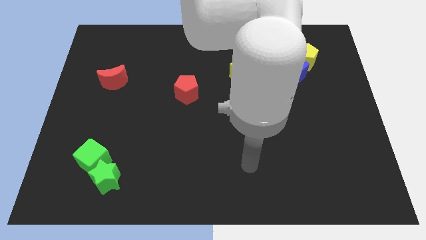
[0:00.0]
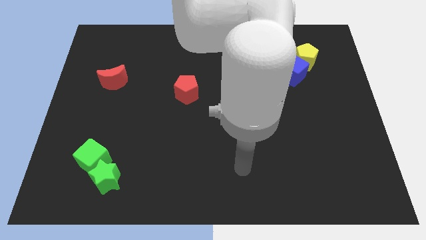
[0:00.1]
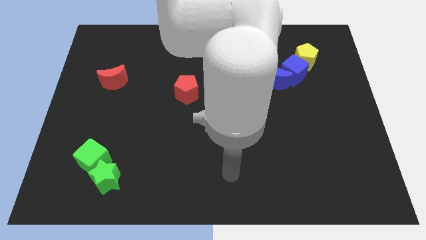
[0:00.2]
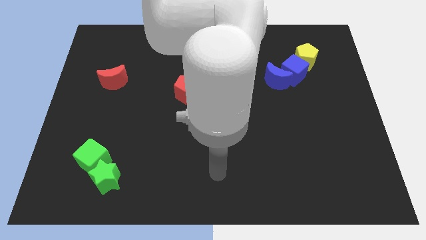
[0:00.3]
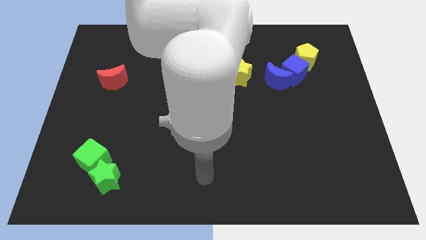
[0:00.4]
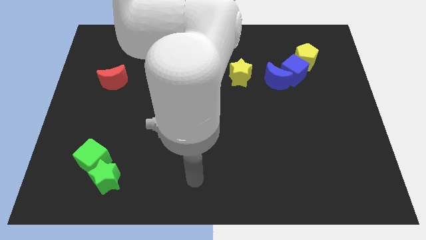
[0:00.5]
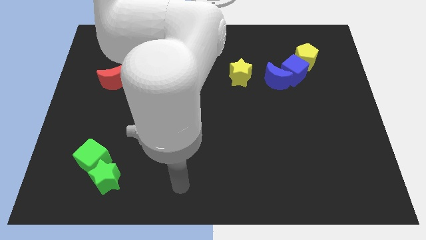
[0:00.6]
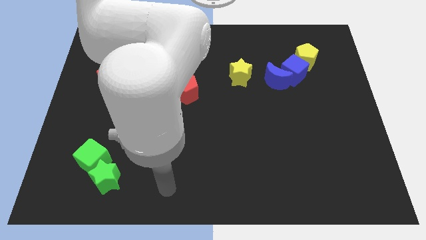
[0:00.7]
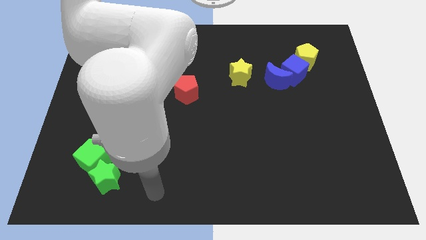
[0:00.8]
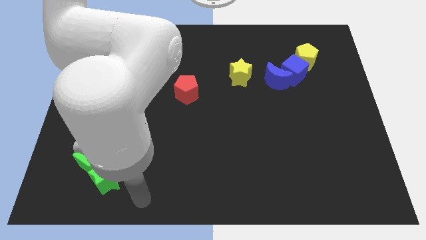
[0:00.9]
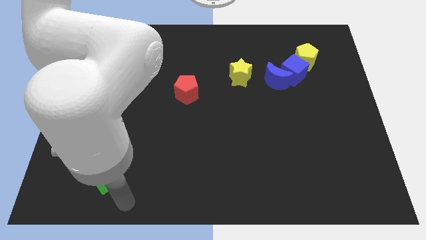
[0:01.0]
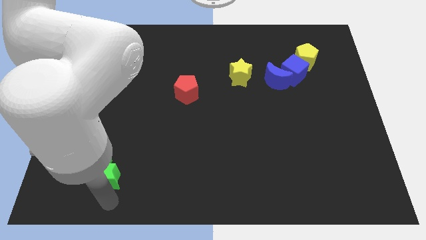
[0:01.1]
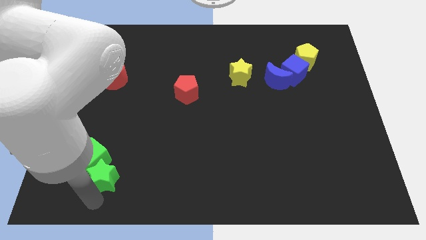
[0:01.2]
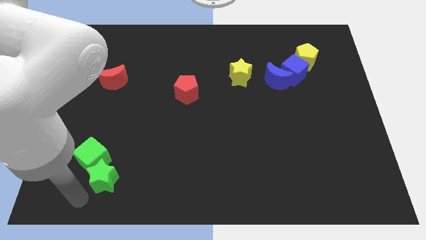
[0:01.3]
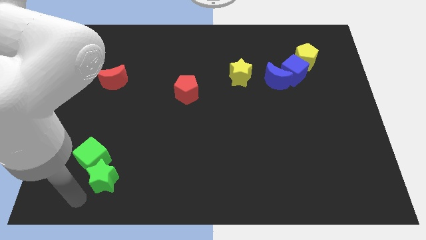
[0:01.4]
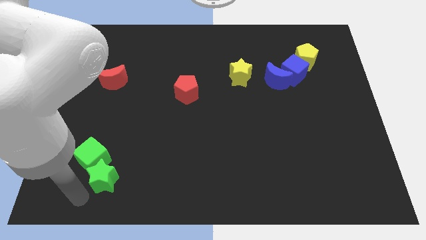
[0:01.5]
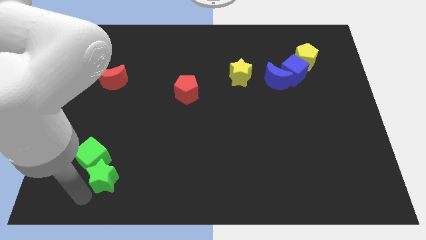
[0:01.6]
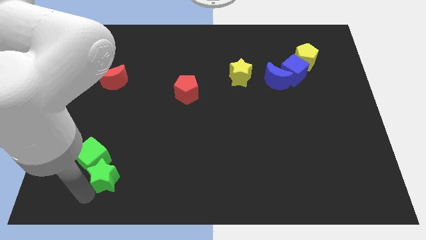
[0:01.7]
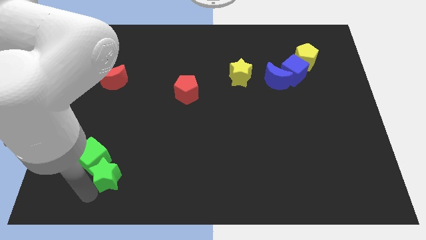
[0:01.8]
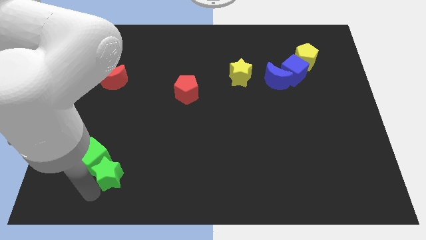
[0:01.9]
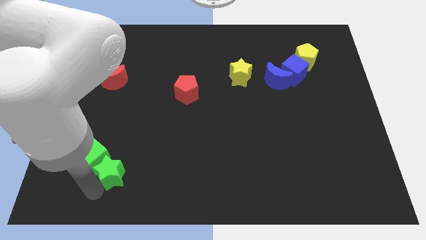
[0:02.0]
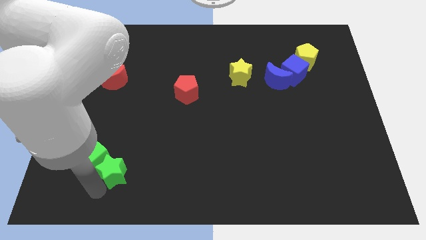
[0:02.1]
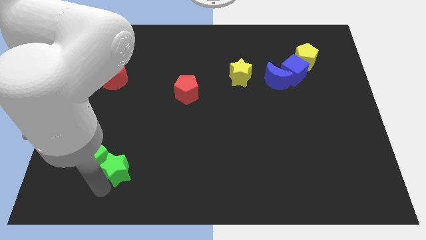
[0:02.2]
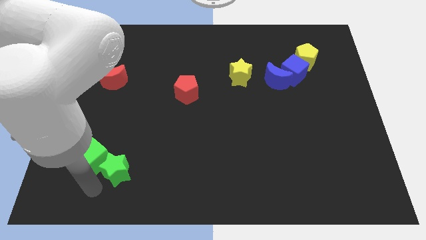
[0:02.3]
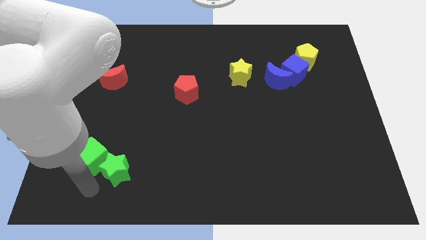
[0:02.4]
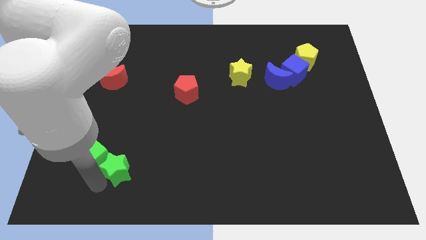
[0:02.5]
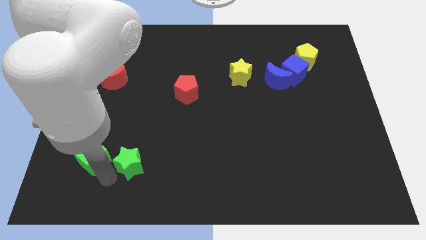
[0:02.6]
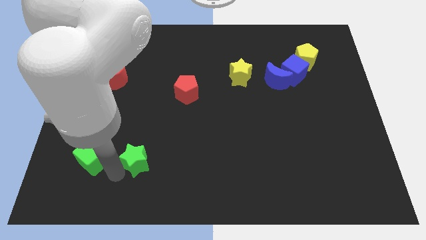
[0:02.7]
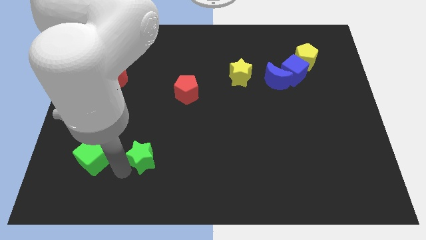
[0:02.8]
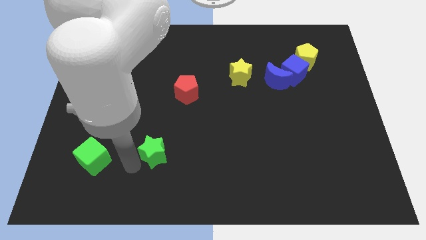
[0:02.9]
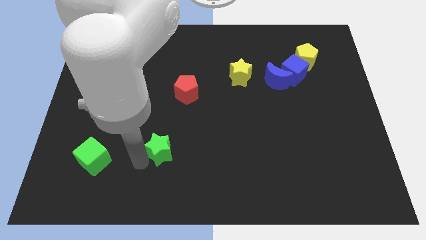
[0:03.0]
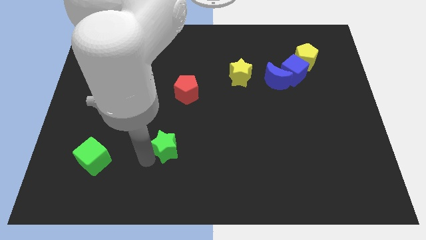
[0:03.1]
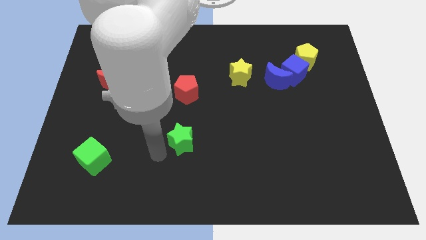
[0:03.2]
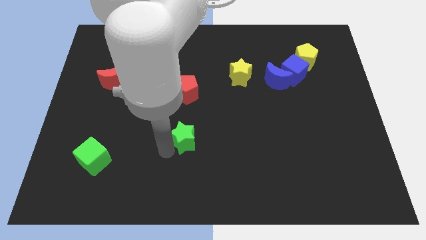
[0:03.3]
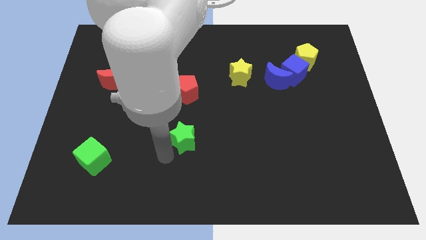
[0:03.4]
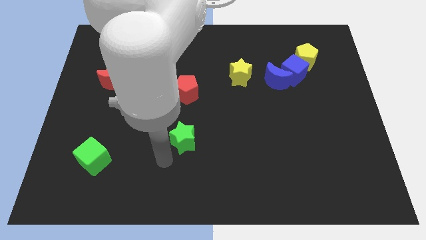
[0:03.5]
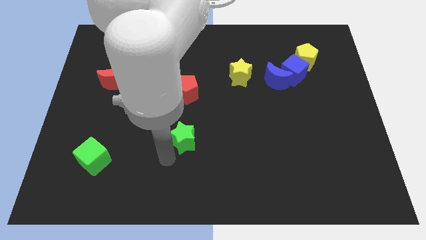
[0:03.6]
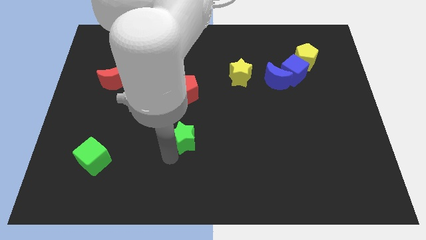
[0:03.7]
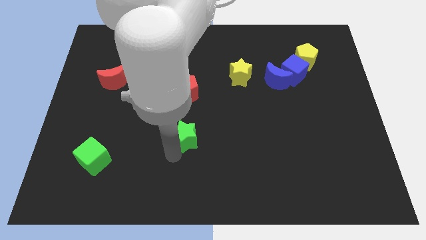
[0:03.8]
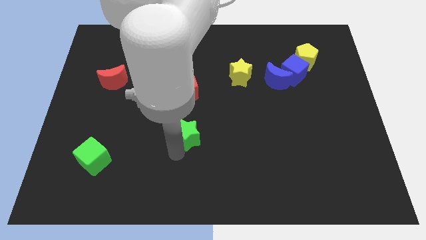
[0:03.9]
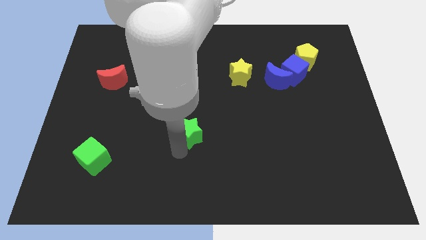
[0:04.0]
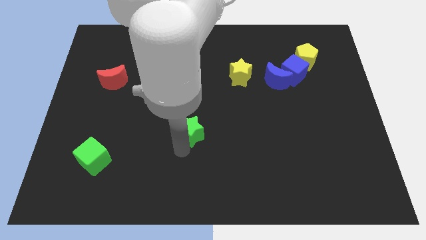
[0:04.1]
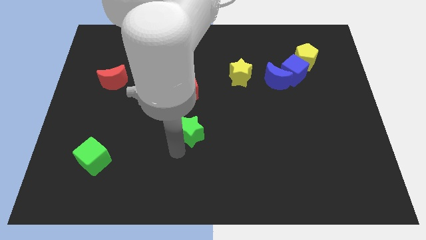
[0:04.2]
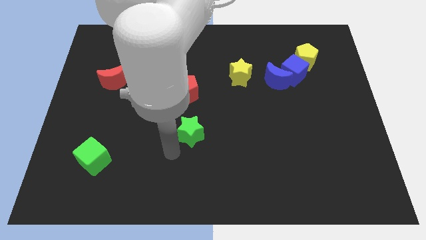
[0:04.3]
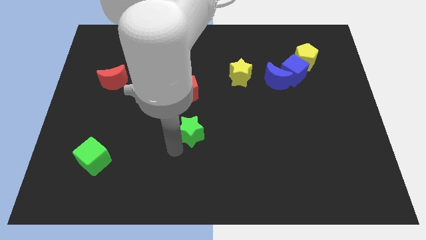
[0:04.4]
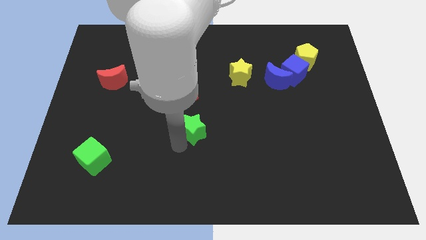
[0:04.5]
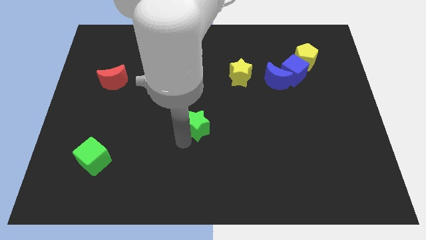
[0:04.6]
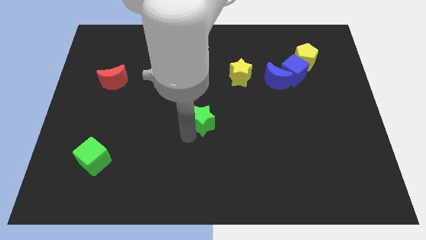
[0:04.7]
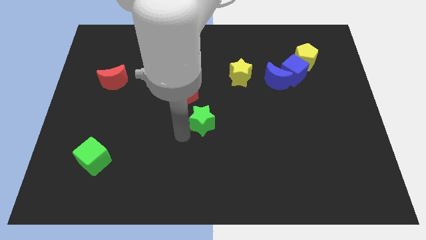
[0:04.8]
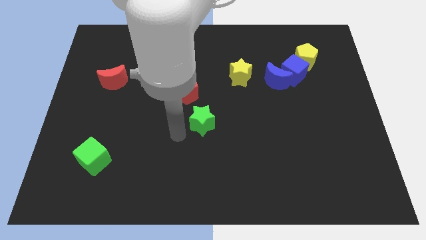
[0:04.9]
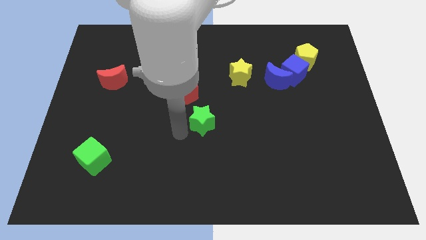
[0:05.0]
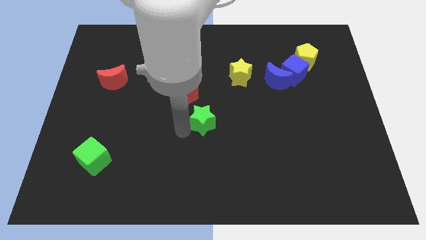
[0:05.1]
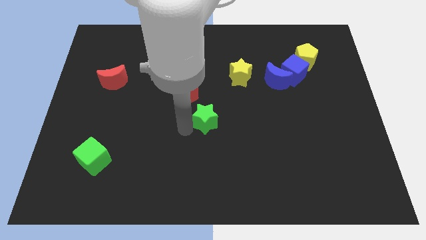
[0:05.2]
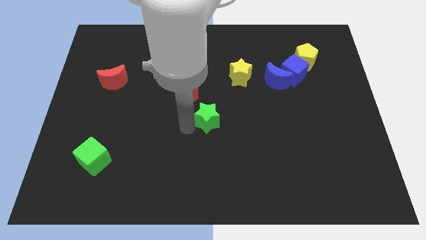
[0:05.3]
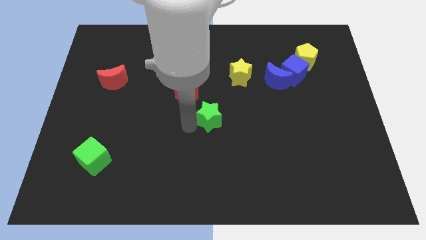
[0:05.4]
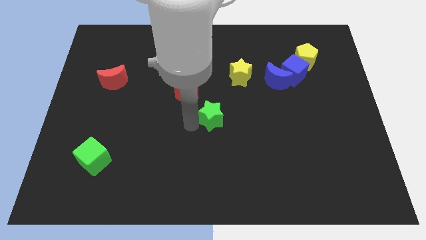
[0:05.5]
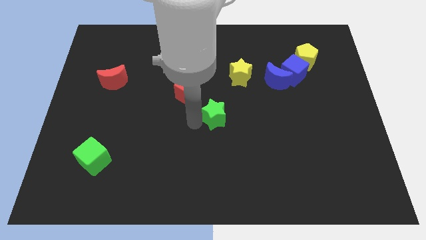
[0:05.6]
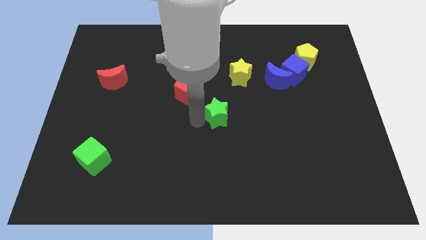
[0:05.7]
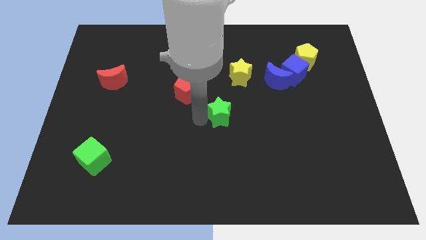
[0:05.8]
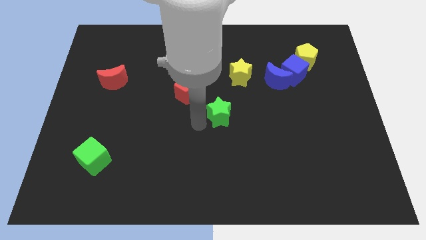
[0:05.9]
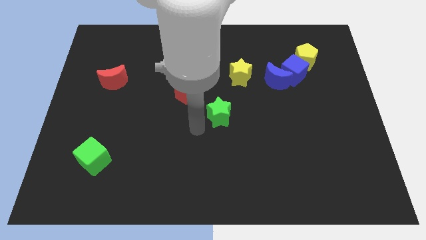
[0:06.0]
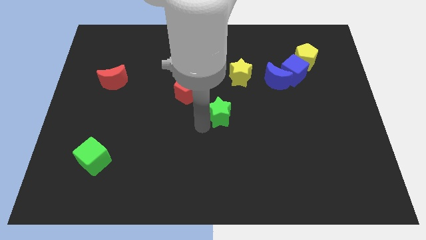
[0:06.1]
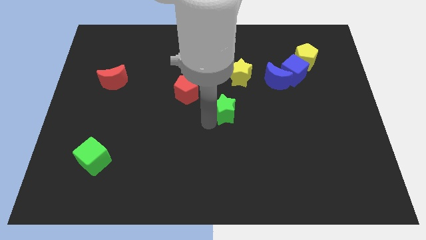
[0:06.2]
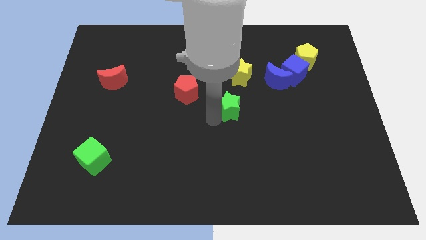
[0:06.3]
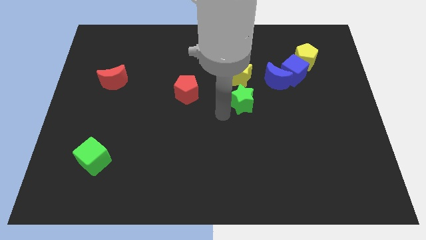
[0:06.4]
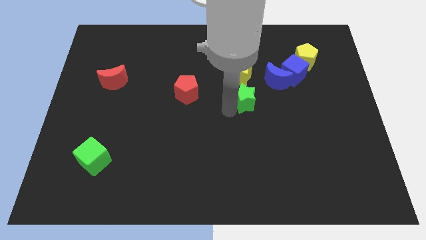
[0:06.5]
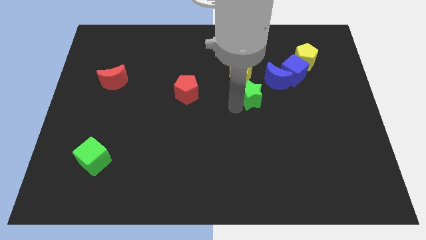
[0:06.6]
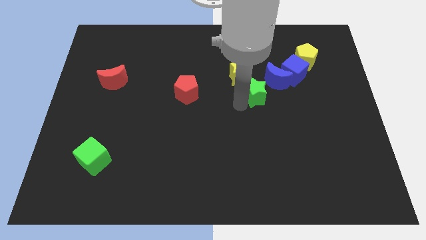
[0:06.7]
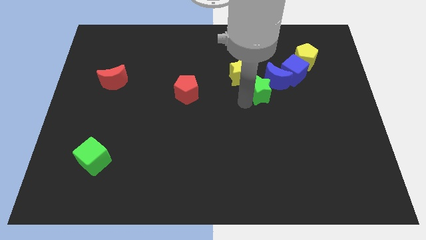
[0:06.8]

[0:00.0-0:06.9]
slide the green star to the blue moon

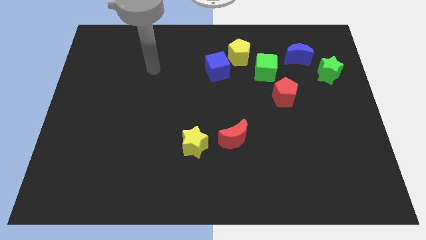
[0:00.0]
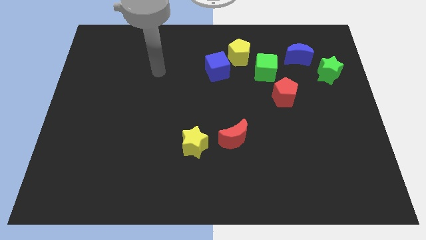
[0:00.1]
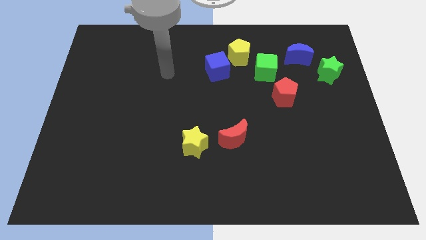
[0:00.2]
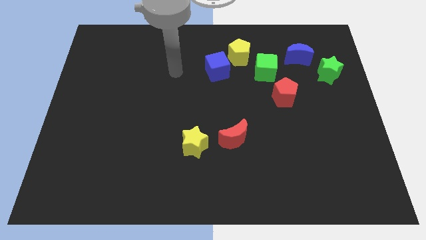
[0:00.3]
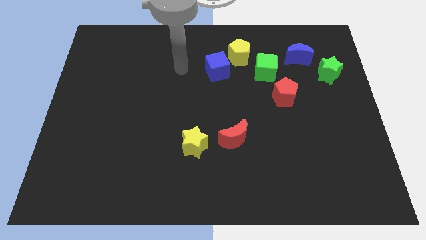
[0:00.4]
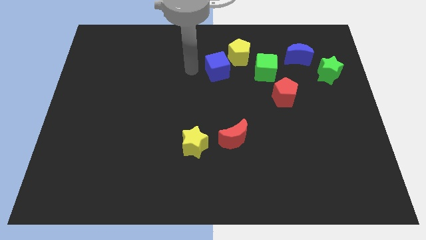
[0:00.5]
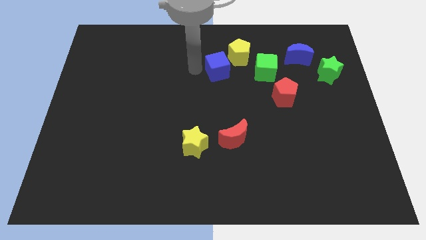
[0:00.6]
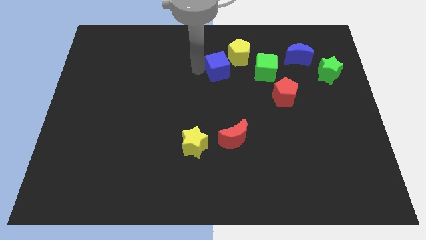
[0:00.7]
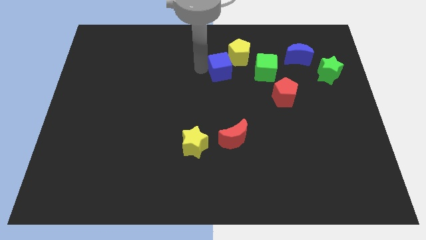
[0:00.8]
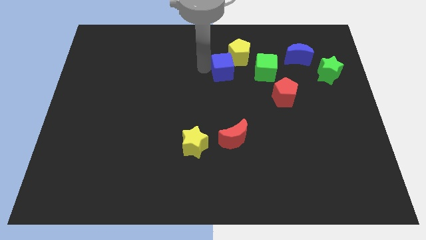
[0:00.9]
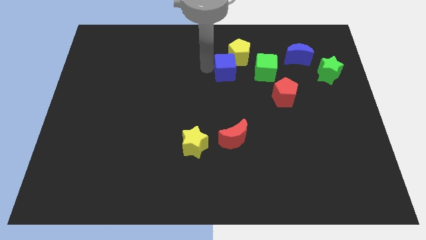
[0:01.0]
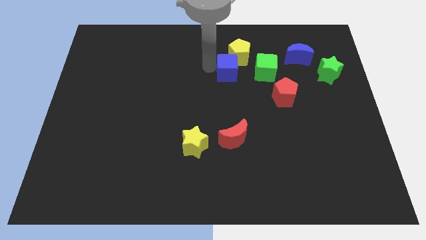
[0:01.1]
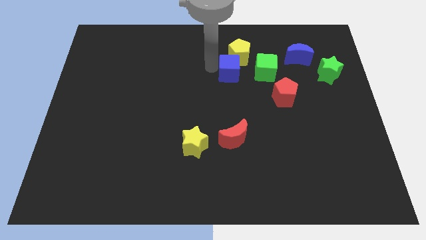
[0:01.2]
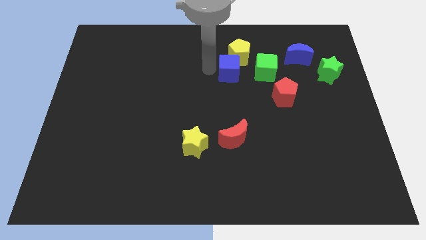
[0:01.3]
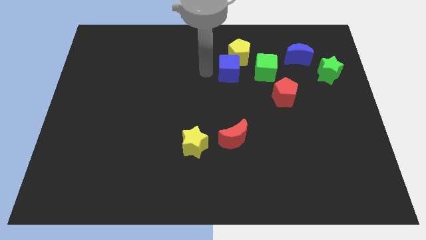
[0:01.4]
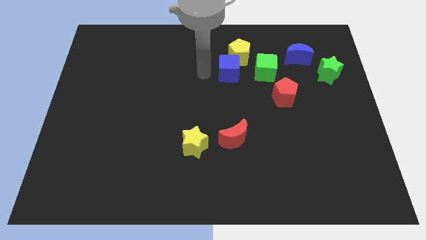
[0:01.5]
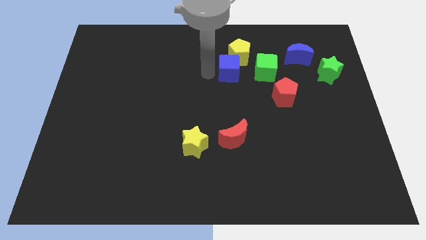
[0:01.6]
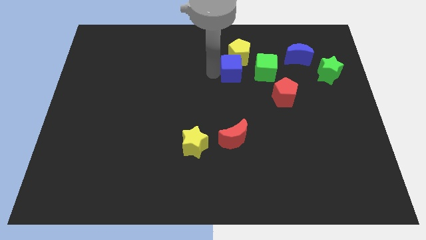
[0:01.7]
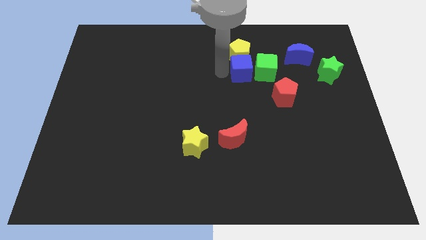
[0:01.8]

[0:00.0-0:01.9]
push the blue cube towards the green cube
